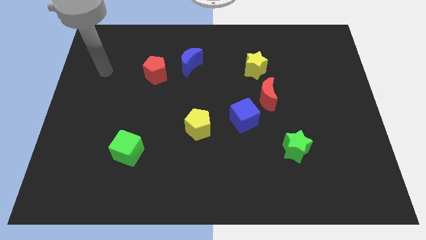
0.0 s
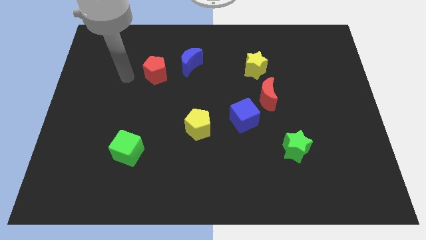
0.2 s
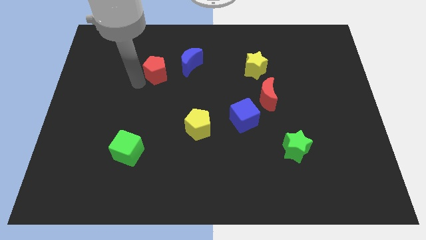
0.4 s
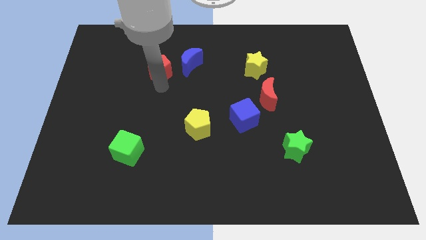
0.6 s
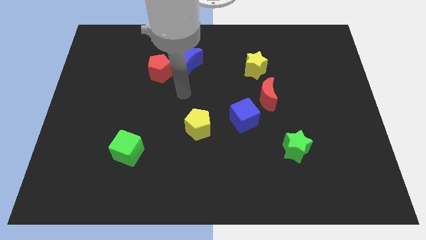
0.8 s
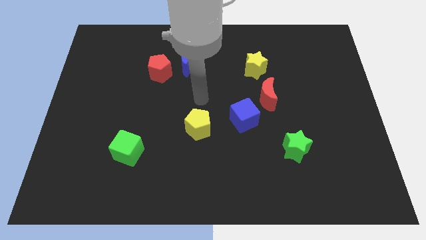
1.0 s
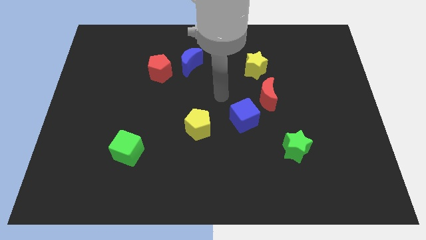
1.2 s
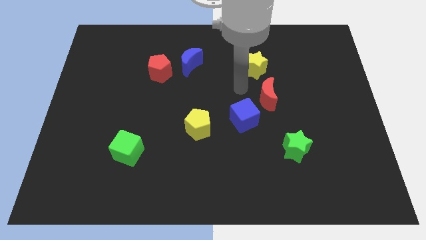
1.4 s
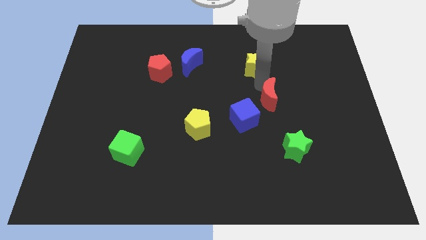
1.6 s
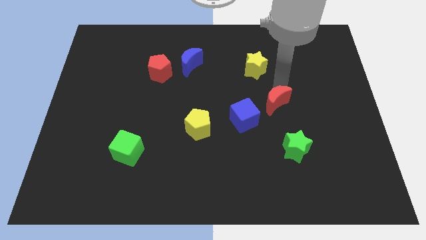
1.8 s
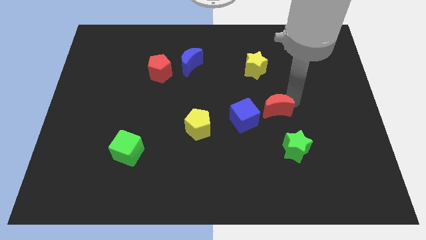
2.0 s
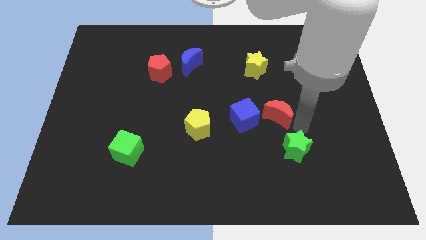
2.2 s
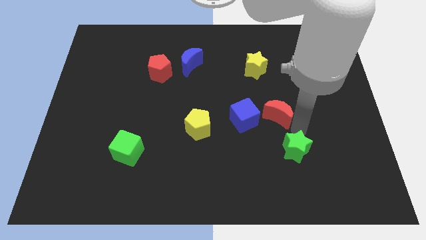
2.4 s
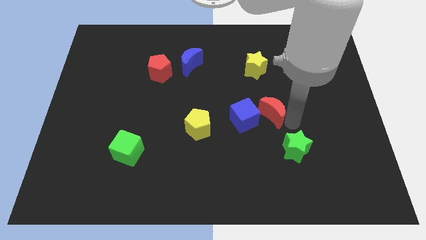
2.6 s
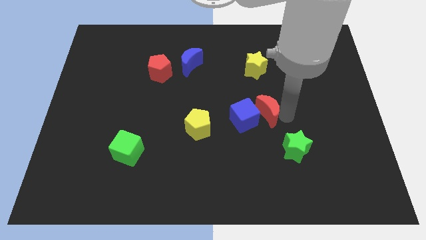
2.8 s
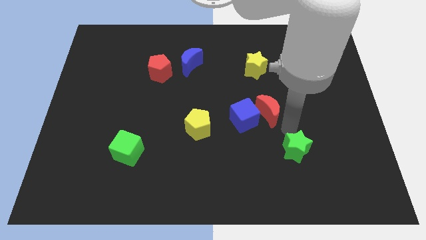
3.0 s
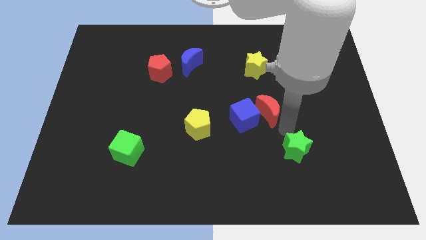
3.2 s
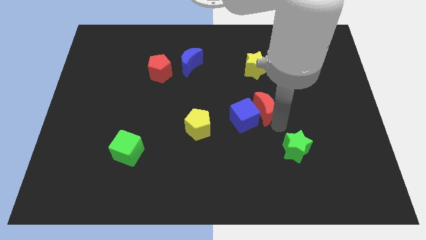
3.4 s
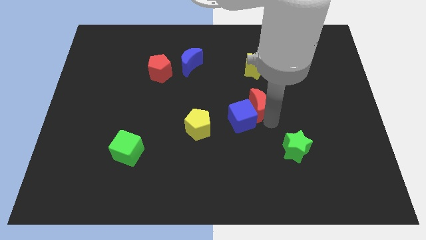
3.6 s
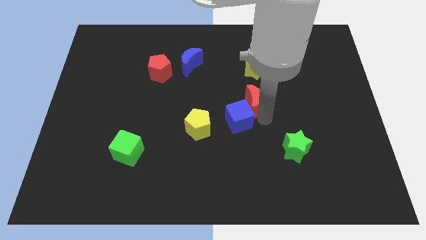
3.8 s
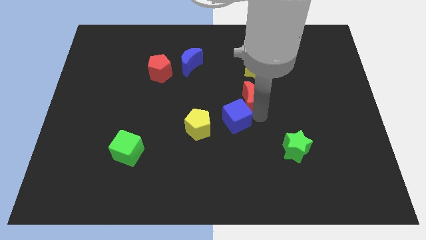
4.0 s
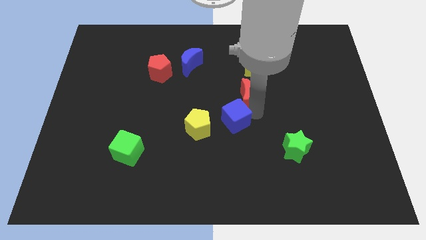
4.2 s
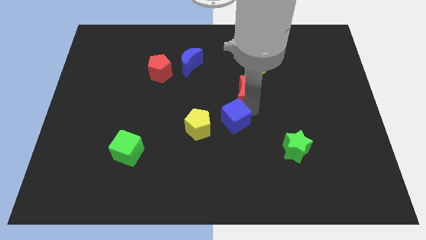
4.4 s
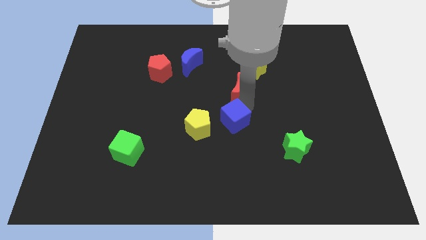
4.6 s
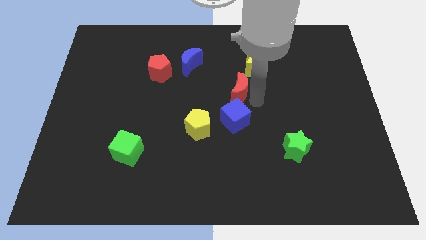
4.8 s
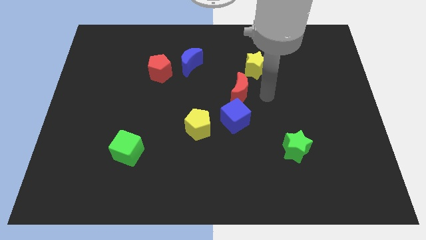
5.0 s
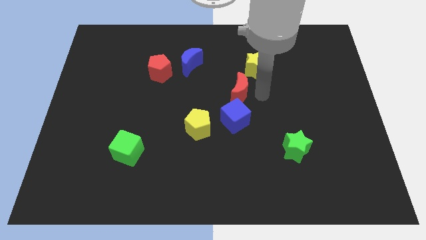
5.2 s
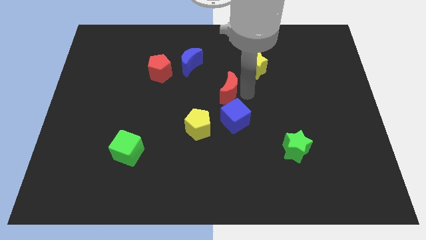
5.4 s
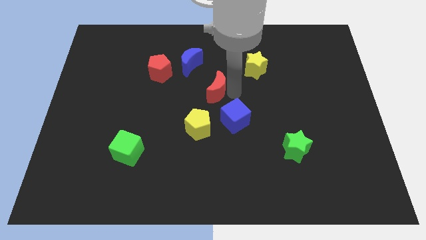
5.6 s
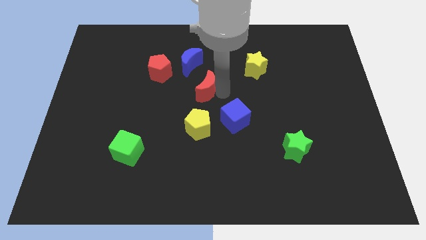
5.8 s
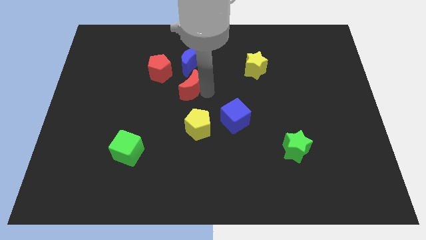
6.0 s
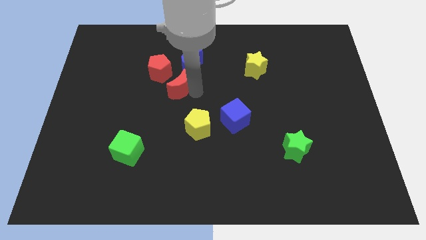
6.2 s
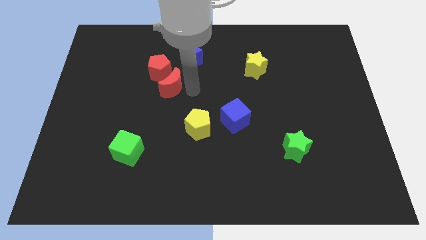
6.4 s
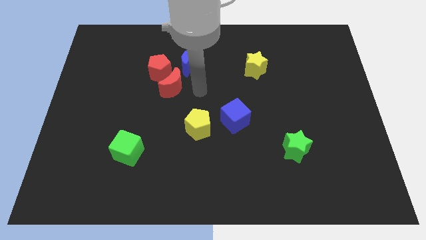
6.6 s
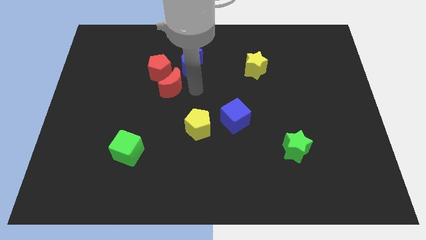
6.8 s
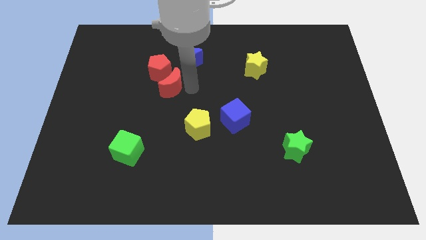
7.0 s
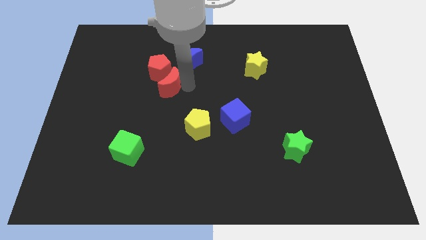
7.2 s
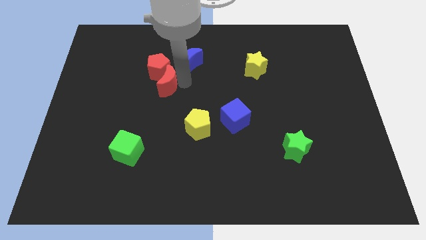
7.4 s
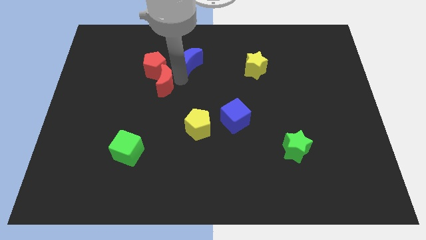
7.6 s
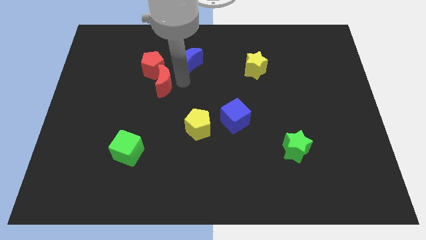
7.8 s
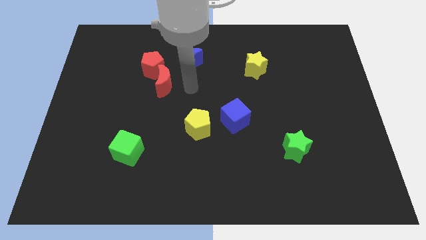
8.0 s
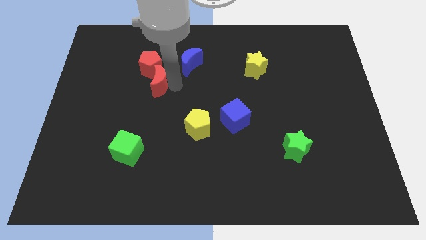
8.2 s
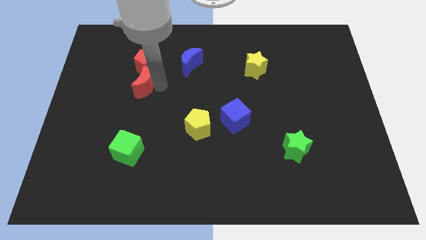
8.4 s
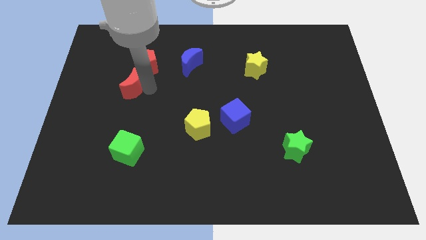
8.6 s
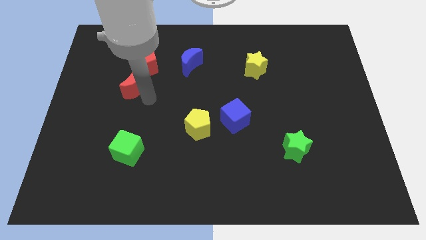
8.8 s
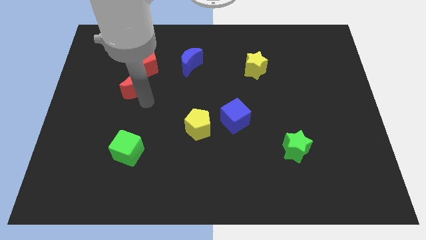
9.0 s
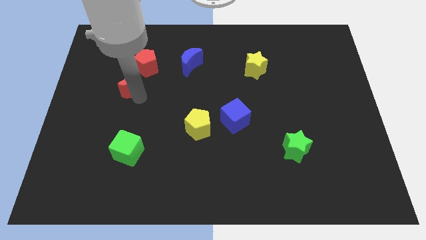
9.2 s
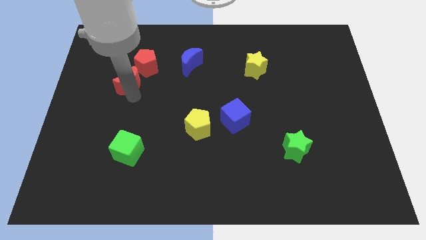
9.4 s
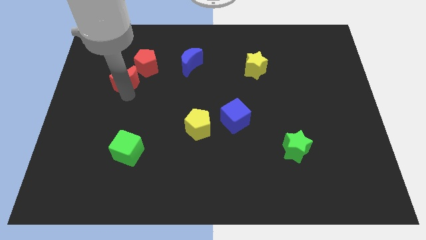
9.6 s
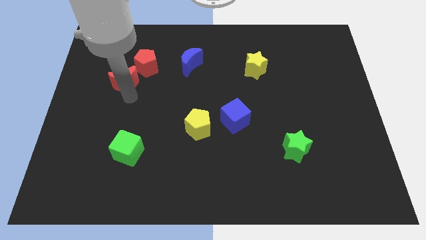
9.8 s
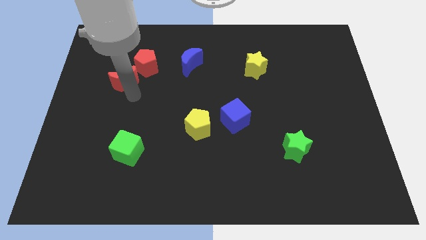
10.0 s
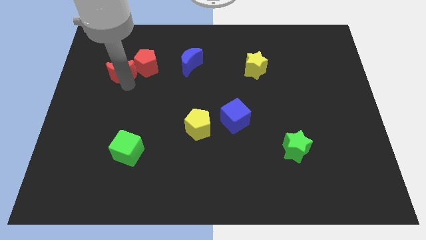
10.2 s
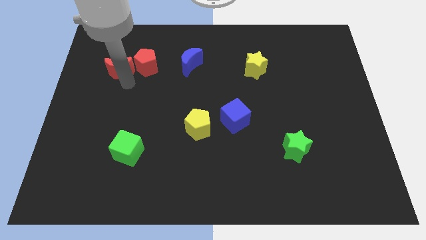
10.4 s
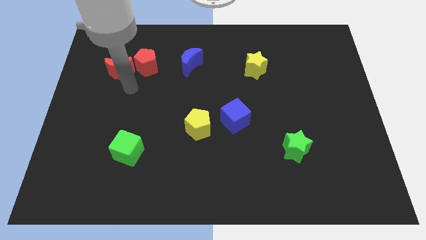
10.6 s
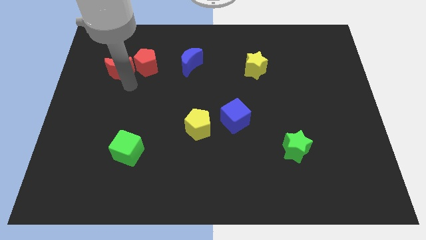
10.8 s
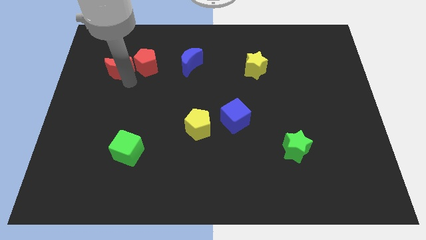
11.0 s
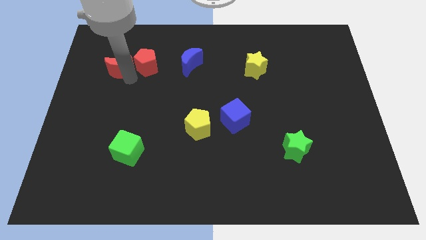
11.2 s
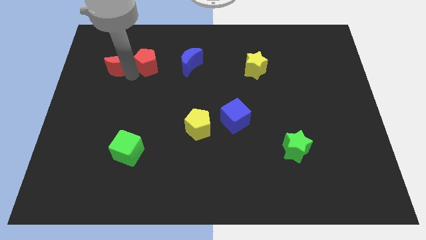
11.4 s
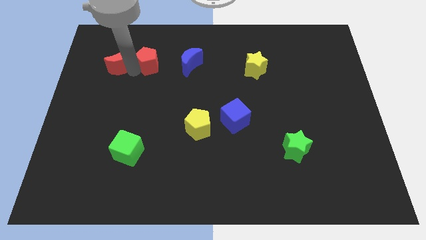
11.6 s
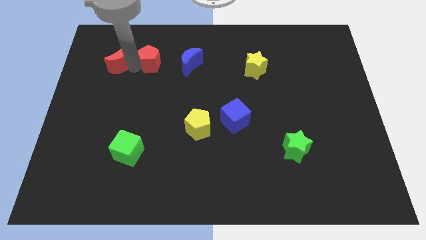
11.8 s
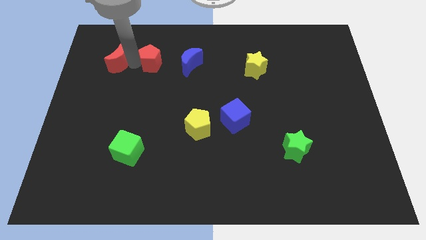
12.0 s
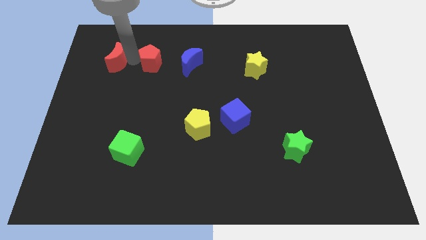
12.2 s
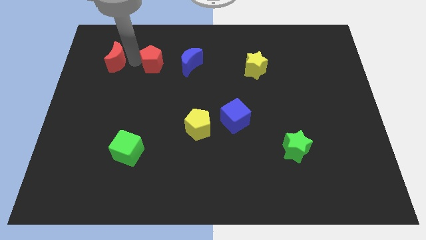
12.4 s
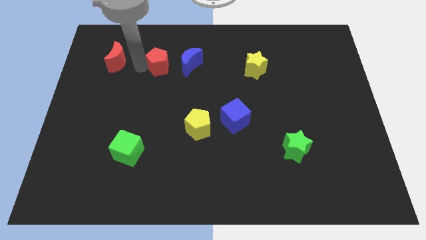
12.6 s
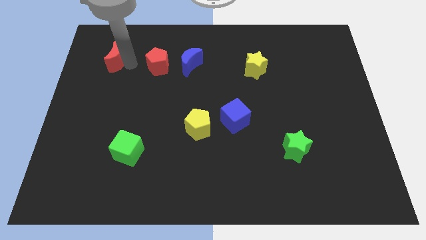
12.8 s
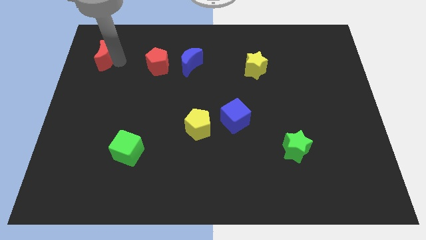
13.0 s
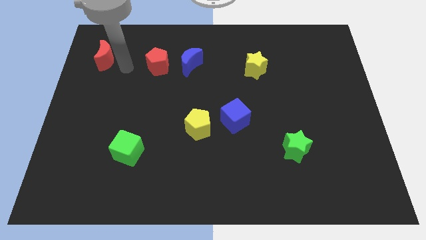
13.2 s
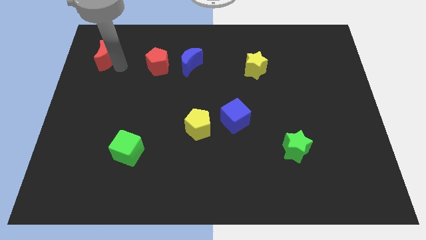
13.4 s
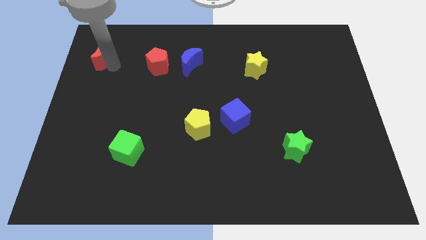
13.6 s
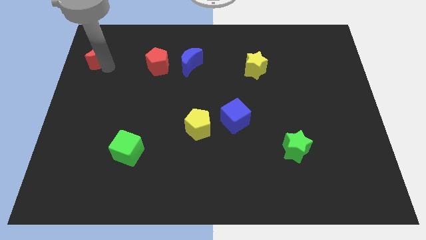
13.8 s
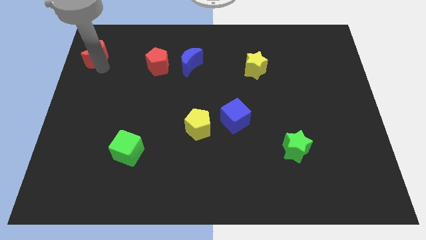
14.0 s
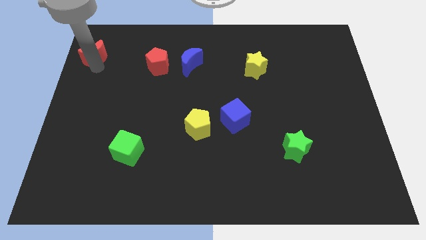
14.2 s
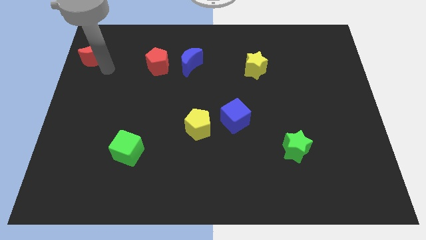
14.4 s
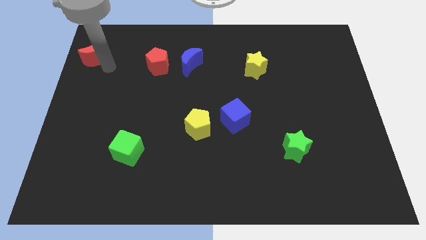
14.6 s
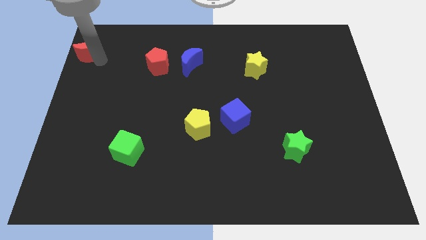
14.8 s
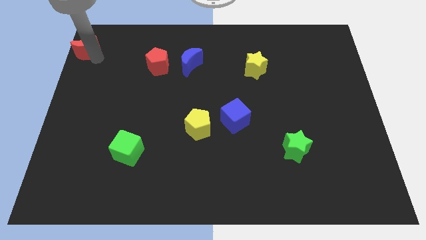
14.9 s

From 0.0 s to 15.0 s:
push the red moon to the top left of the board
